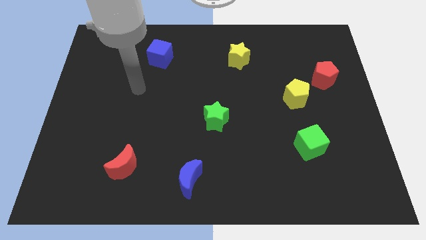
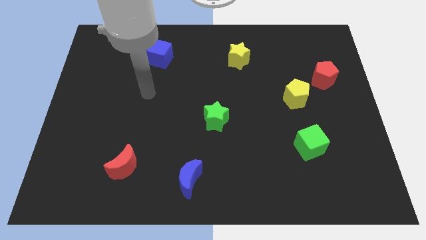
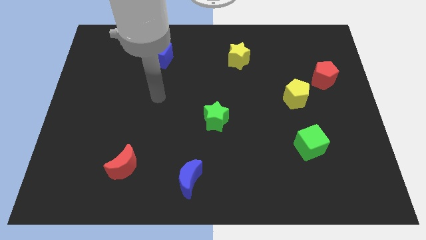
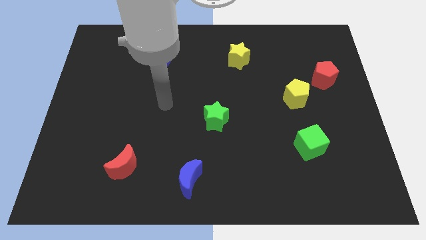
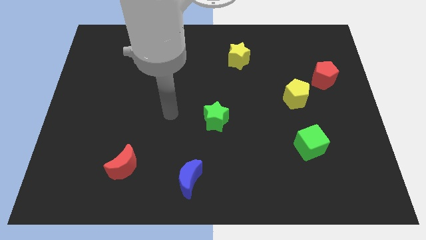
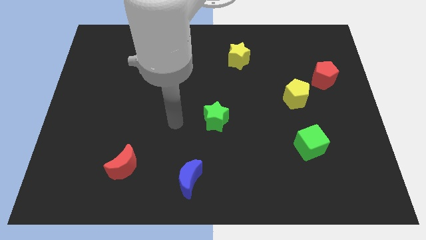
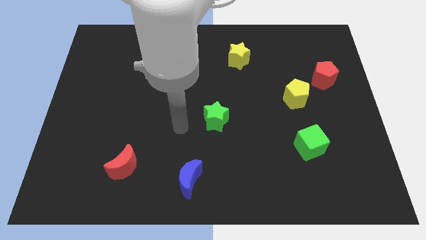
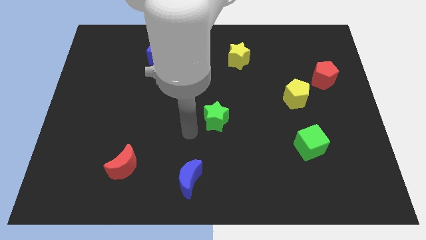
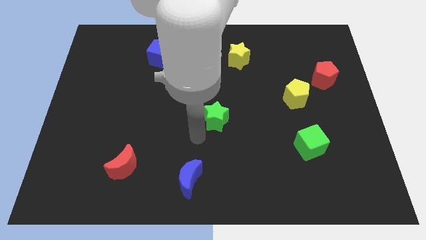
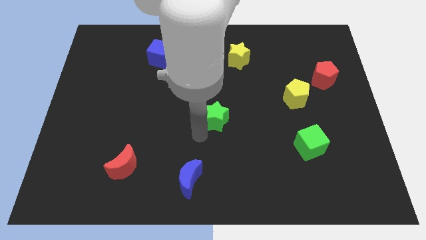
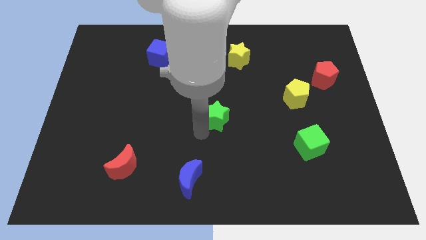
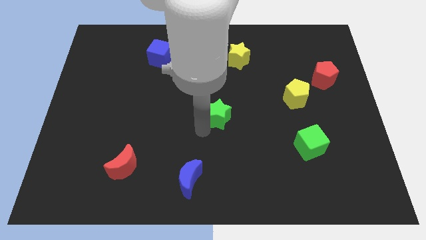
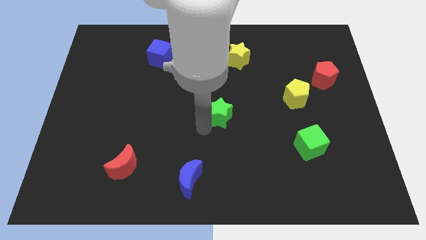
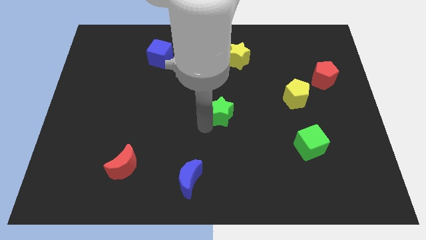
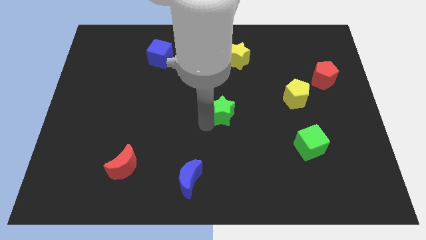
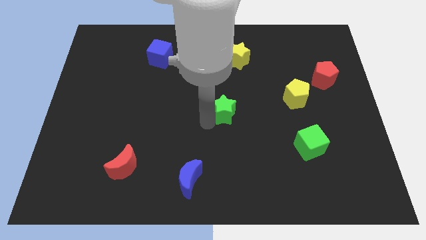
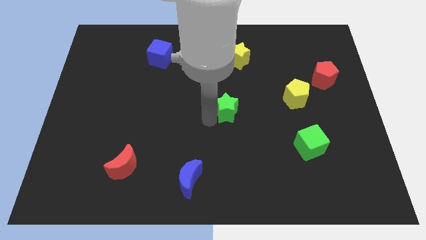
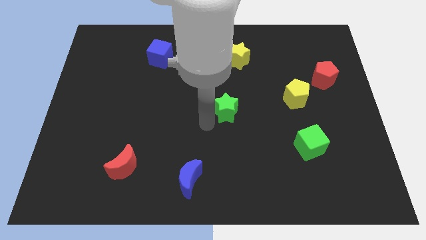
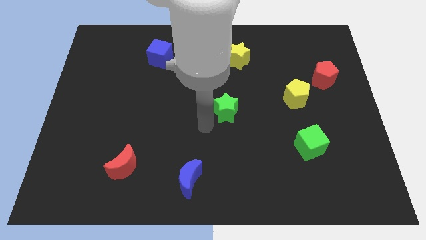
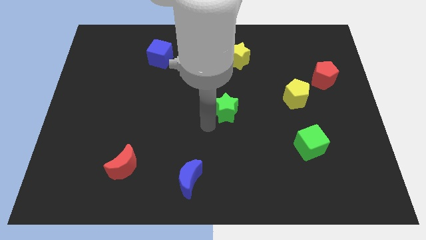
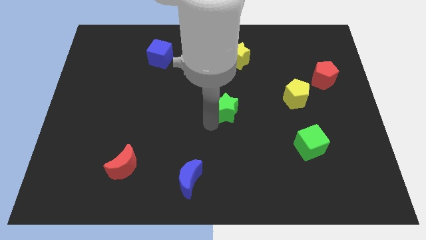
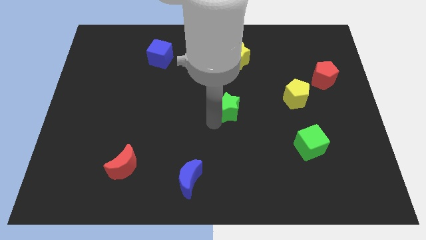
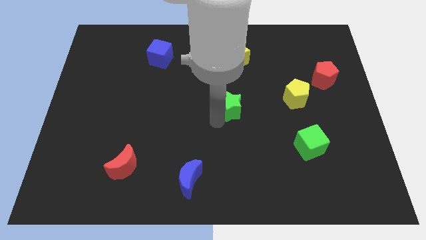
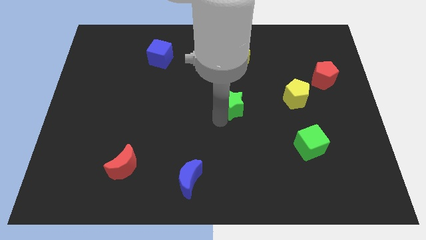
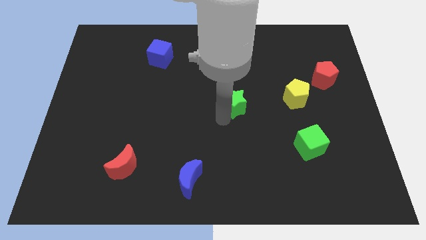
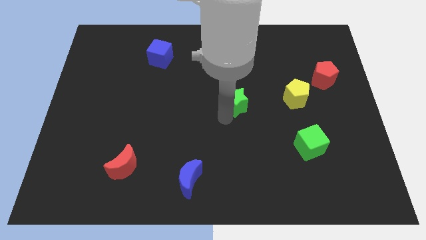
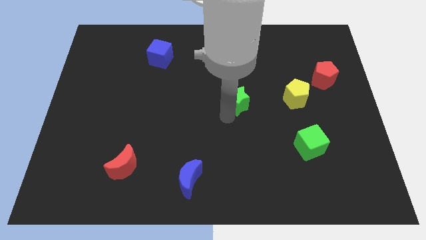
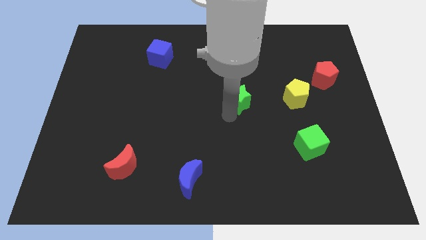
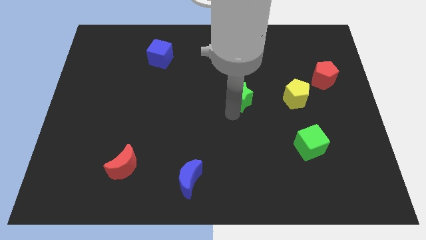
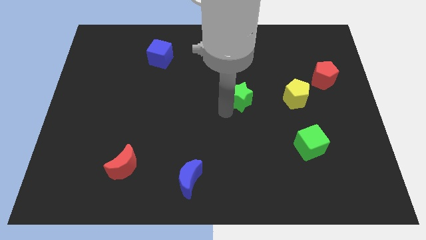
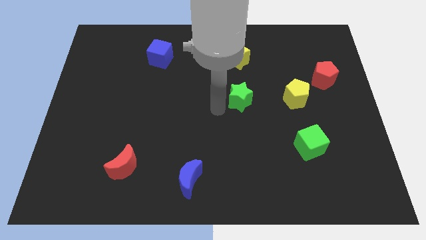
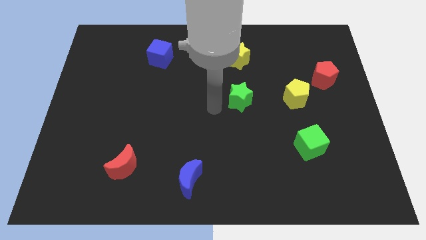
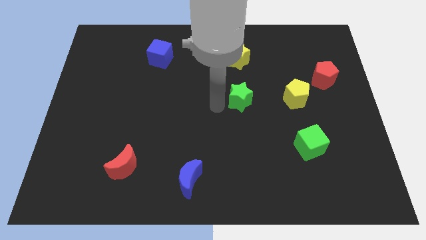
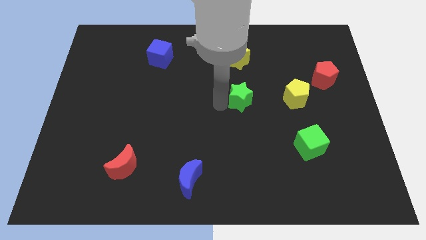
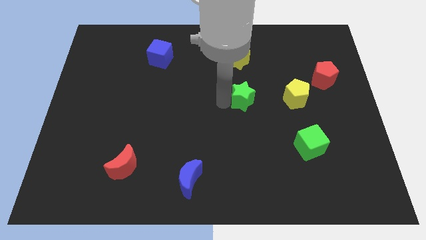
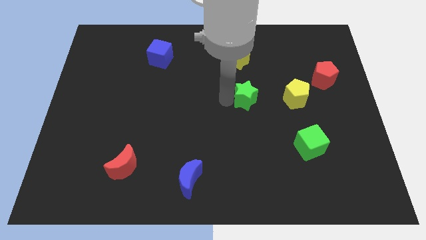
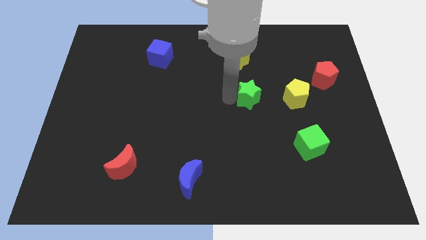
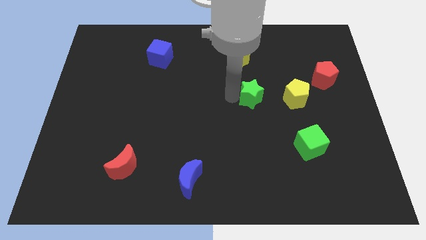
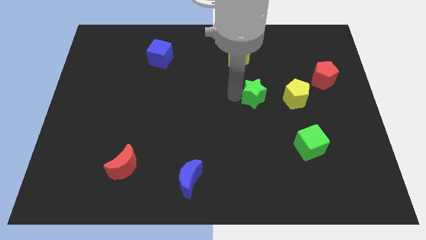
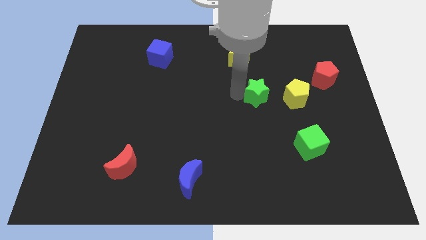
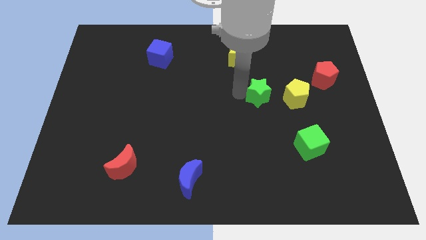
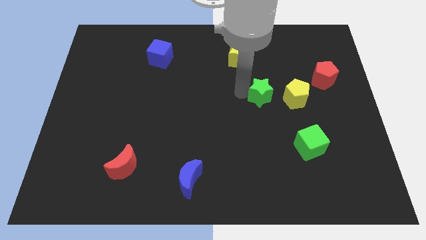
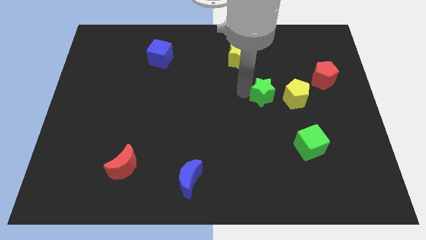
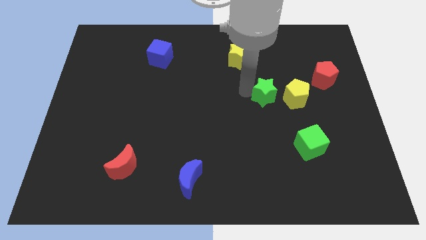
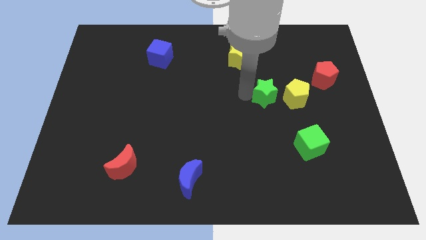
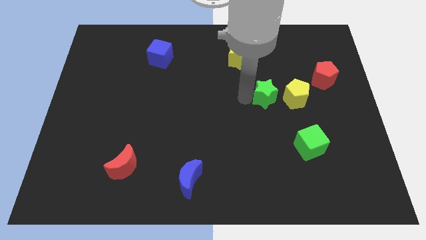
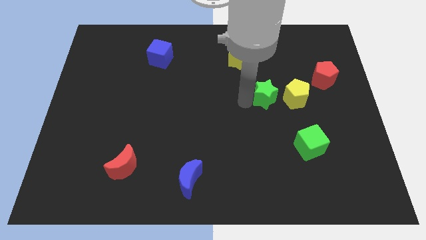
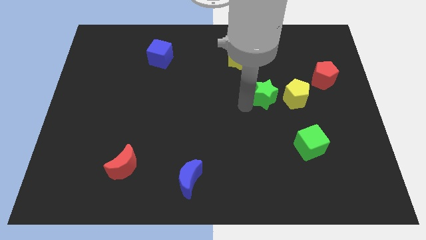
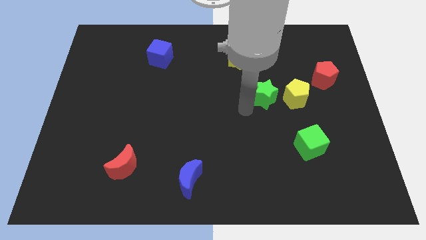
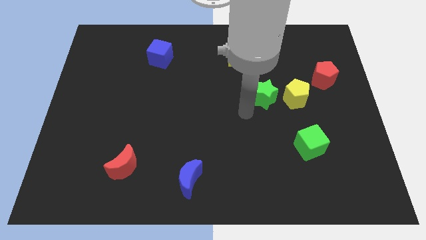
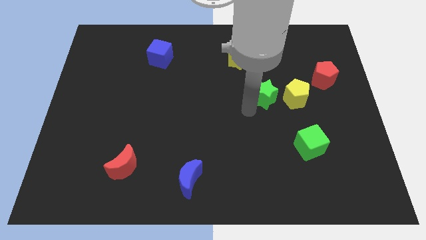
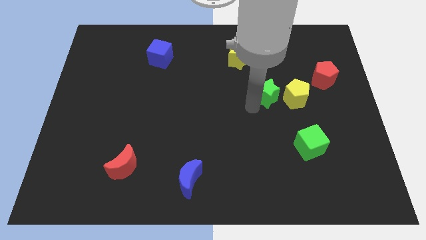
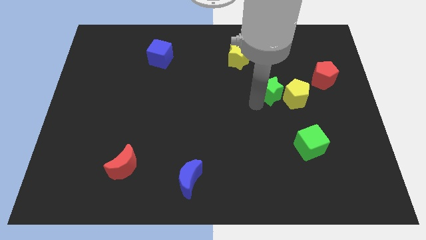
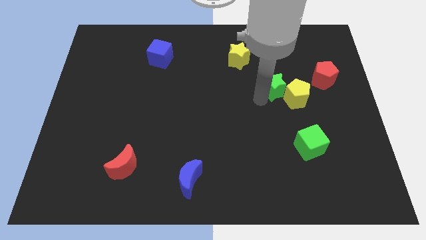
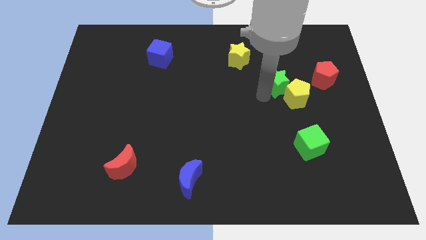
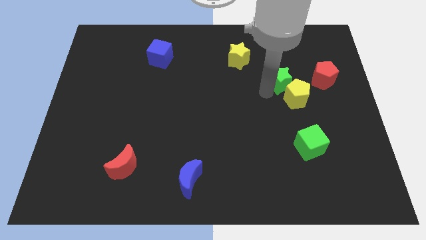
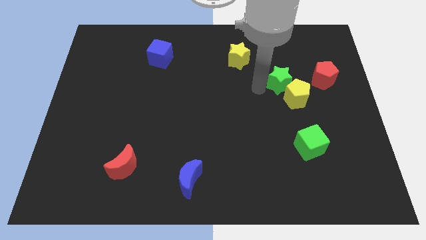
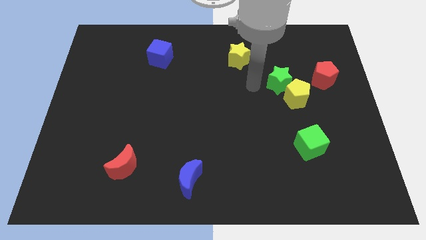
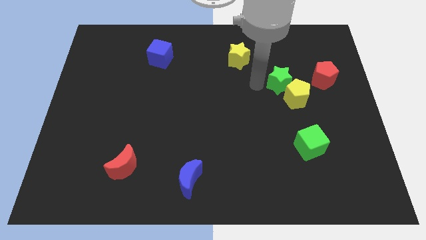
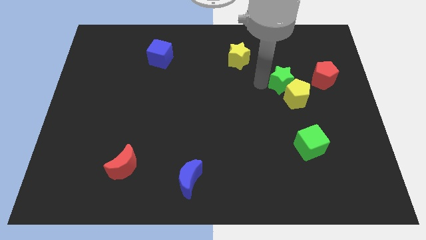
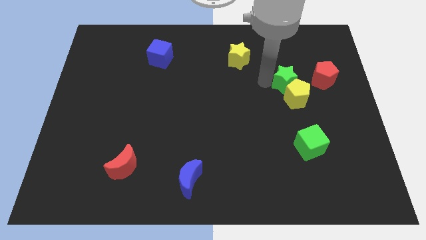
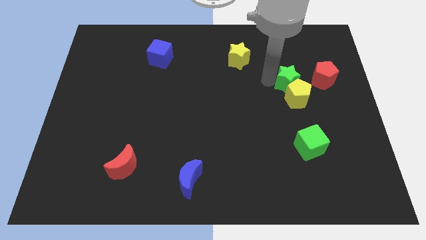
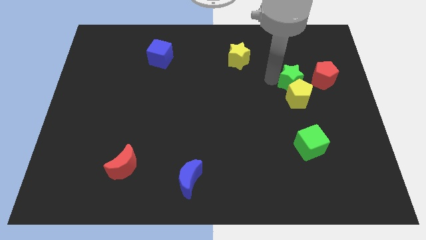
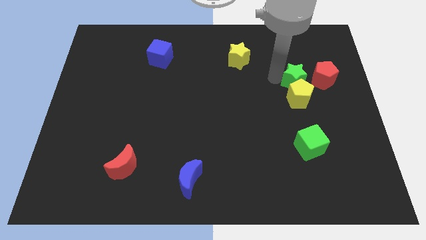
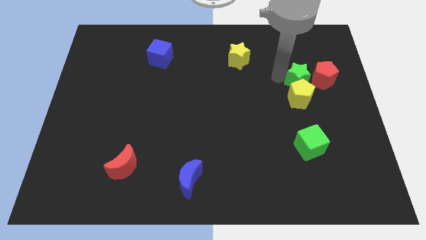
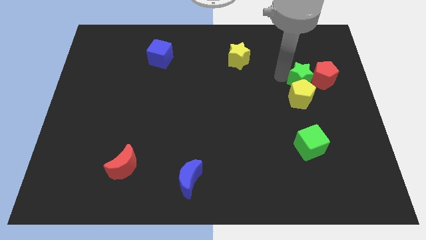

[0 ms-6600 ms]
move the green star next to the red pentagon
